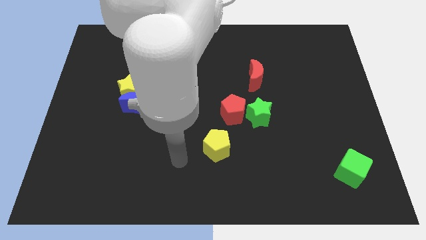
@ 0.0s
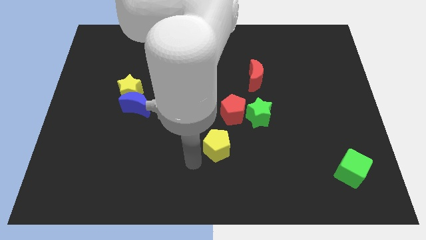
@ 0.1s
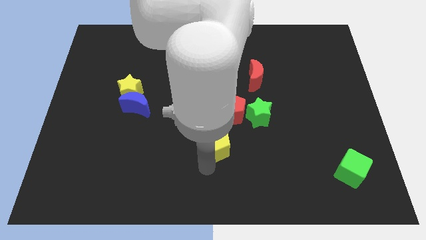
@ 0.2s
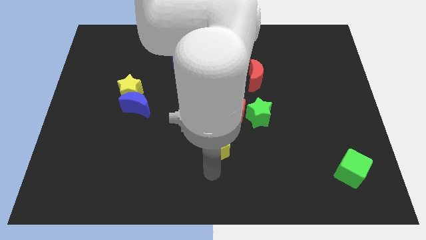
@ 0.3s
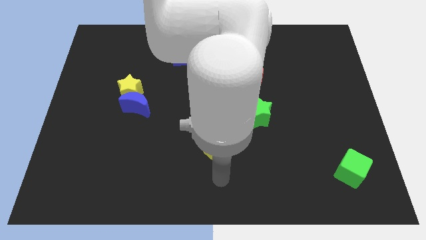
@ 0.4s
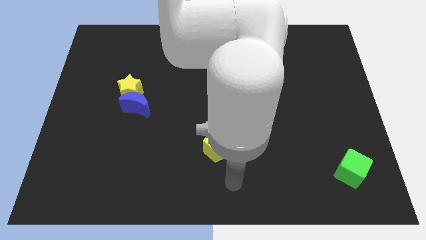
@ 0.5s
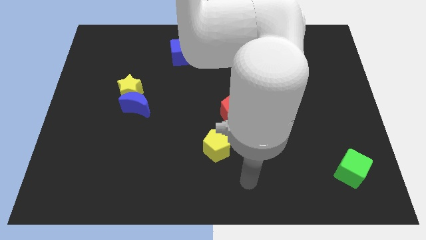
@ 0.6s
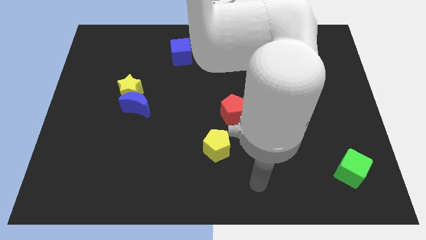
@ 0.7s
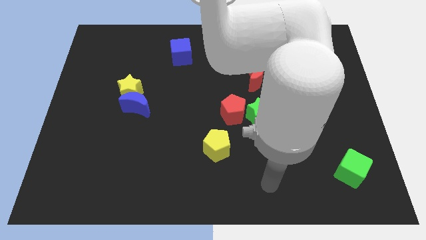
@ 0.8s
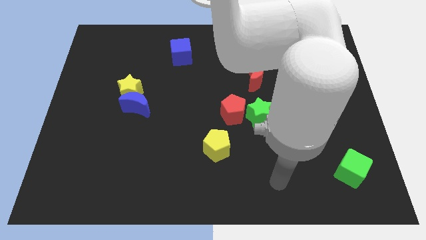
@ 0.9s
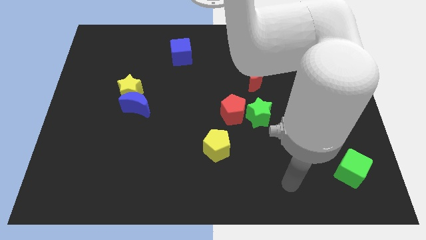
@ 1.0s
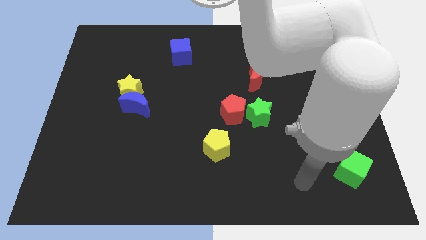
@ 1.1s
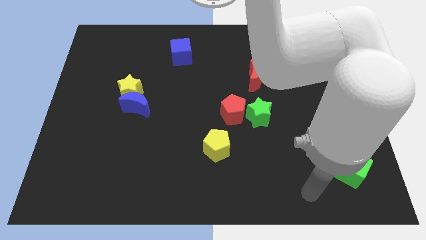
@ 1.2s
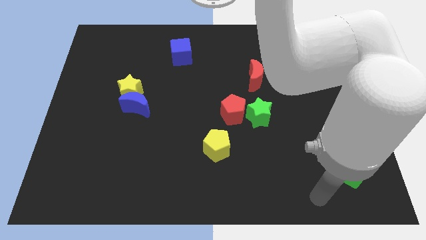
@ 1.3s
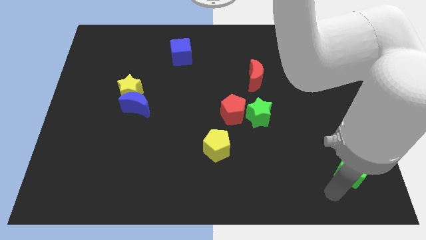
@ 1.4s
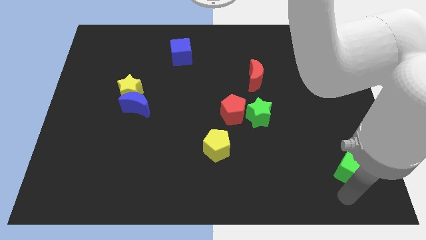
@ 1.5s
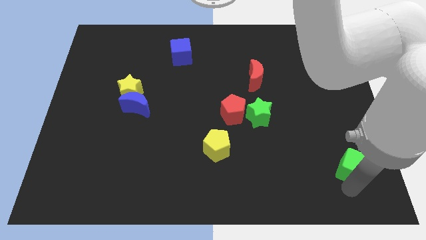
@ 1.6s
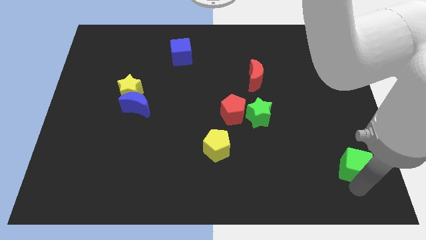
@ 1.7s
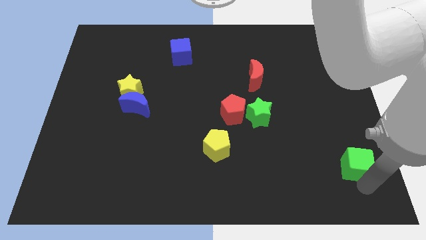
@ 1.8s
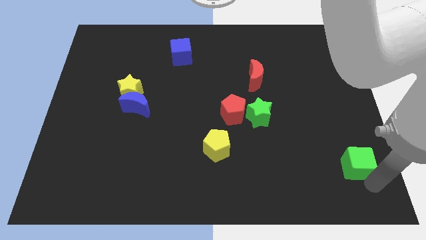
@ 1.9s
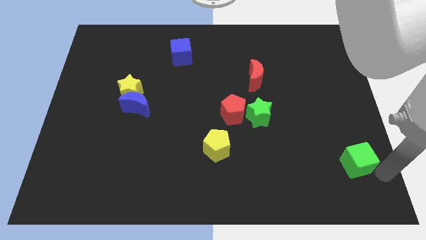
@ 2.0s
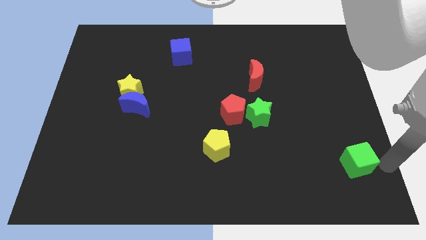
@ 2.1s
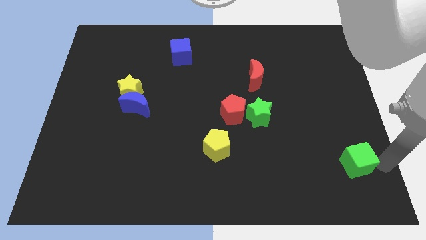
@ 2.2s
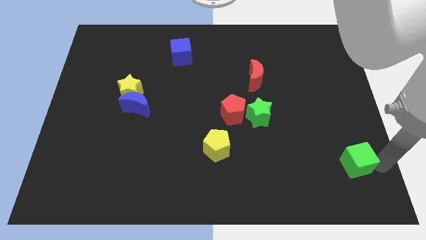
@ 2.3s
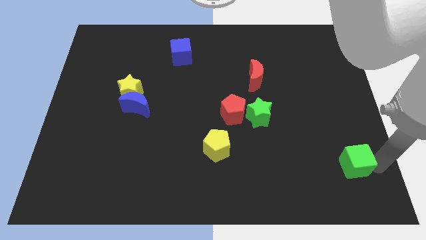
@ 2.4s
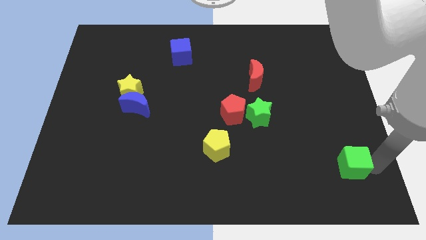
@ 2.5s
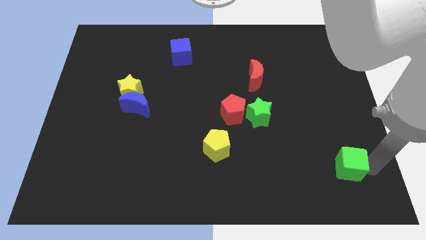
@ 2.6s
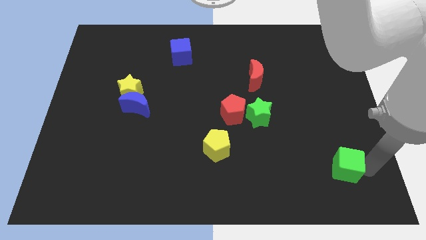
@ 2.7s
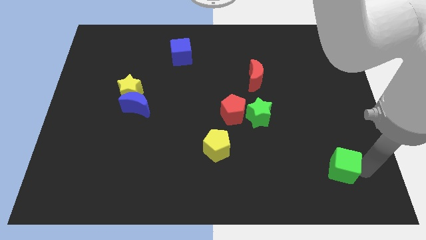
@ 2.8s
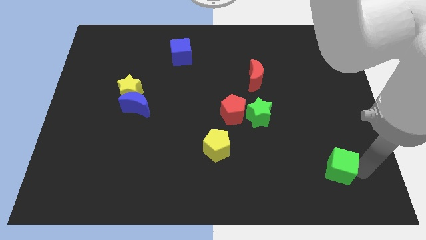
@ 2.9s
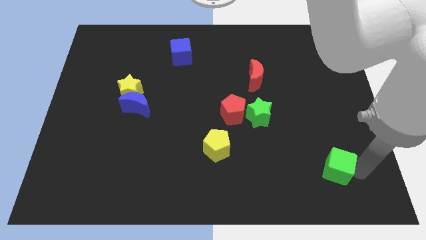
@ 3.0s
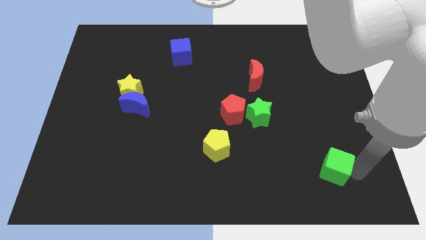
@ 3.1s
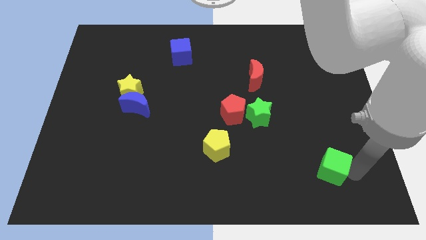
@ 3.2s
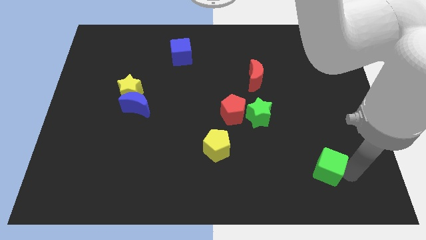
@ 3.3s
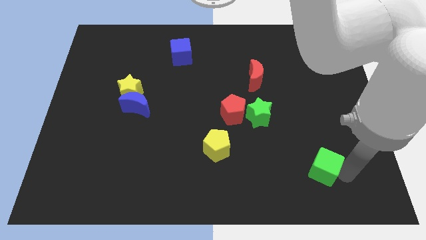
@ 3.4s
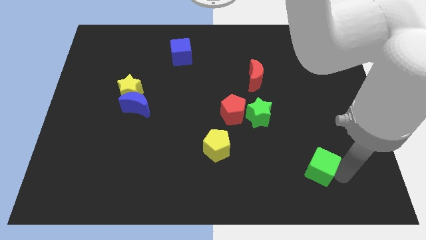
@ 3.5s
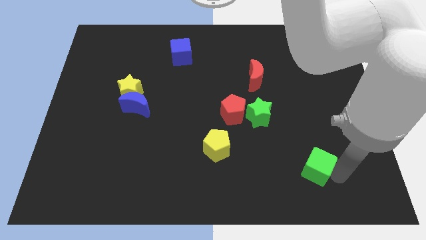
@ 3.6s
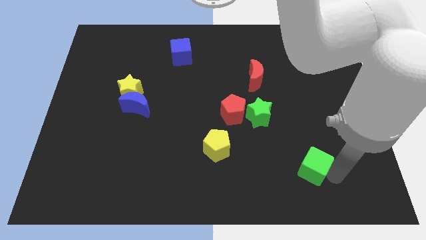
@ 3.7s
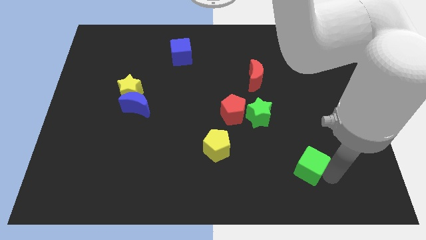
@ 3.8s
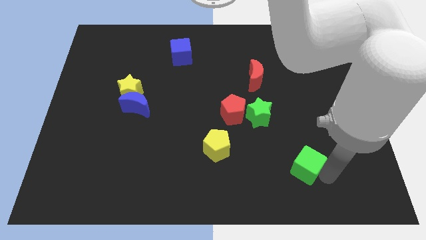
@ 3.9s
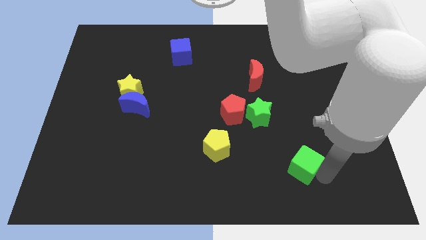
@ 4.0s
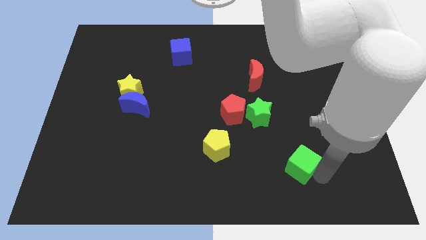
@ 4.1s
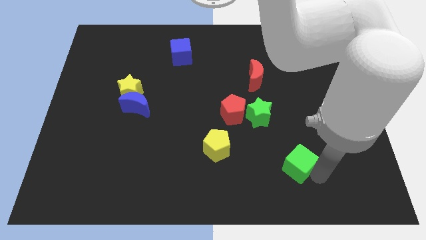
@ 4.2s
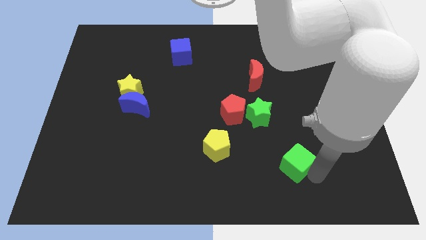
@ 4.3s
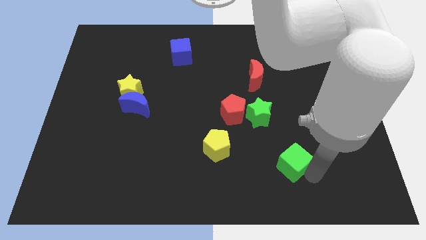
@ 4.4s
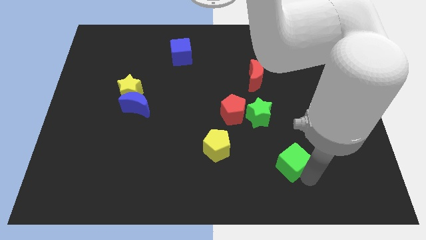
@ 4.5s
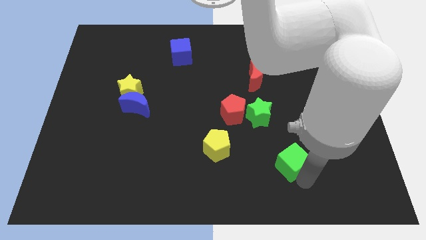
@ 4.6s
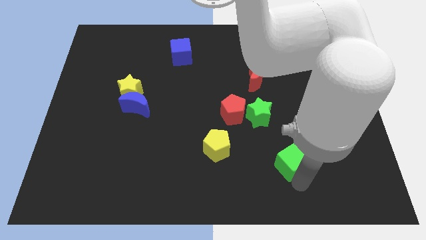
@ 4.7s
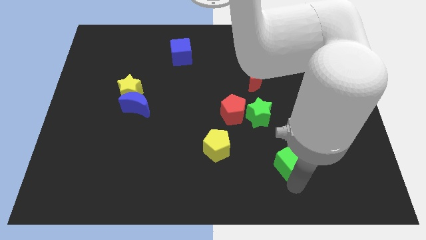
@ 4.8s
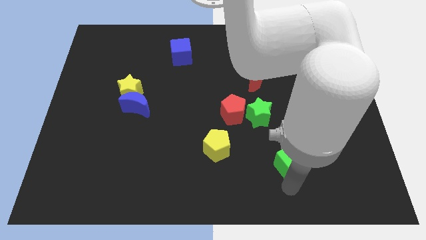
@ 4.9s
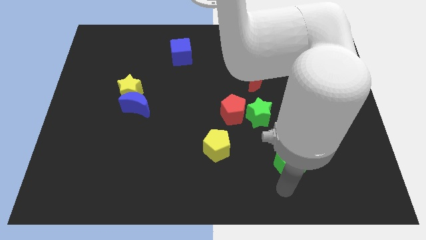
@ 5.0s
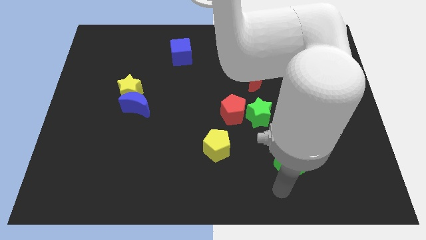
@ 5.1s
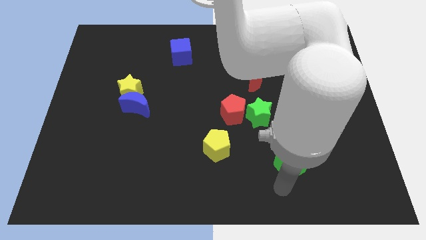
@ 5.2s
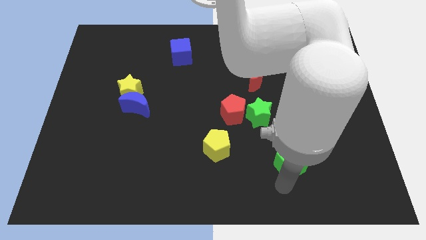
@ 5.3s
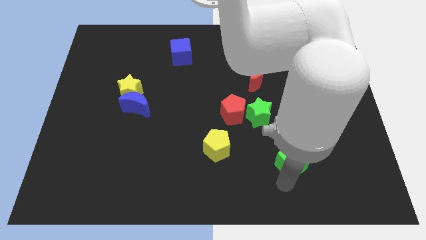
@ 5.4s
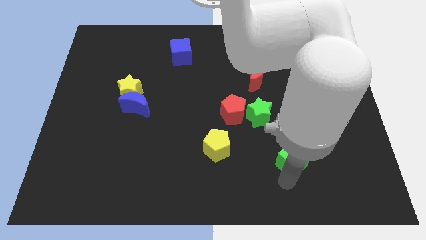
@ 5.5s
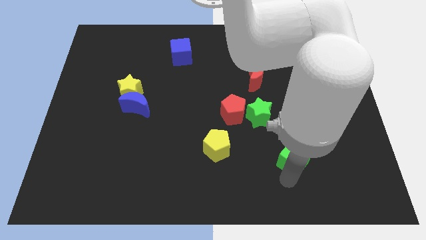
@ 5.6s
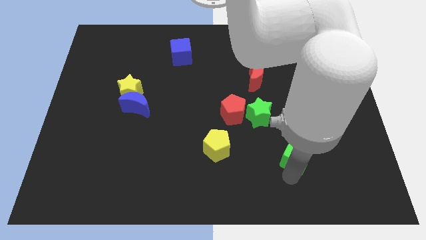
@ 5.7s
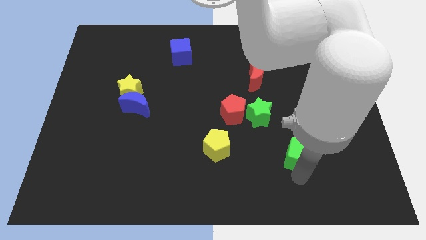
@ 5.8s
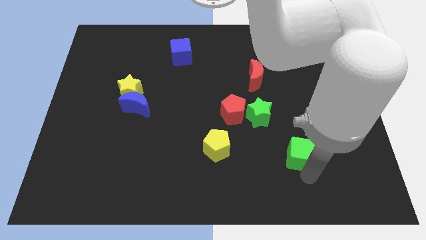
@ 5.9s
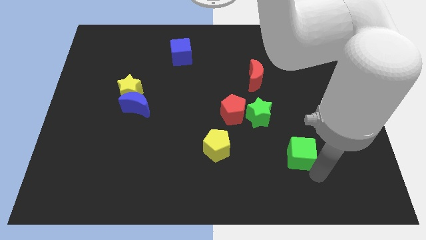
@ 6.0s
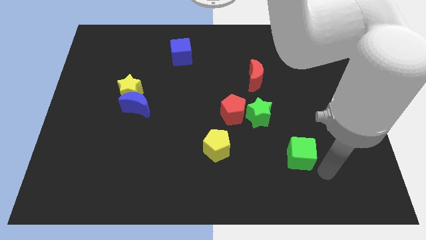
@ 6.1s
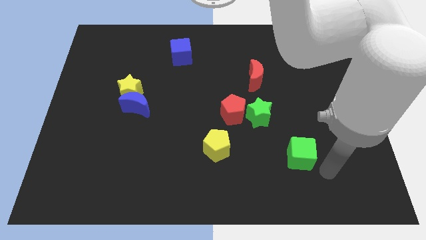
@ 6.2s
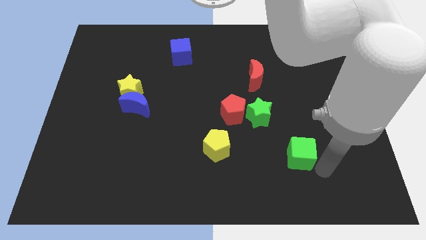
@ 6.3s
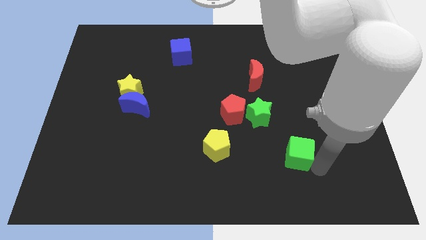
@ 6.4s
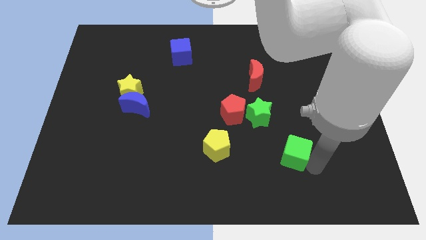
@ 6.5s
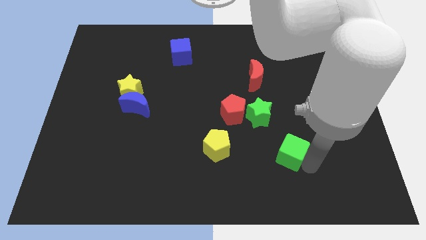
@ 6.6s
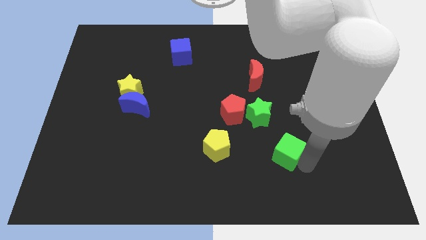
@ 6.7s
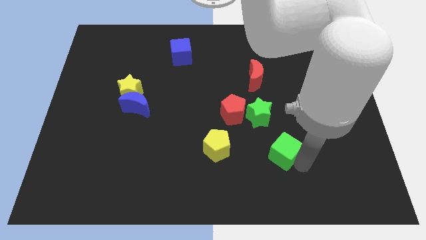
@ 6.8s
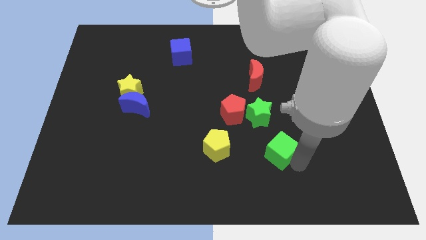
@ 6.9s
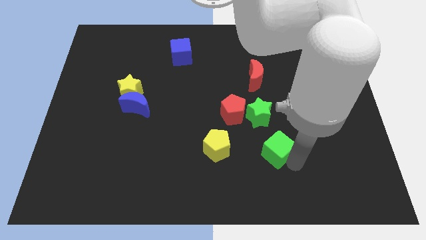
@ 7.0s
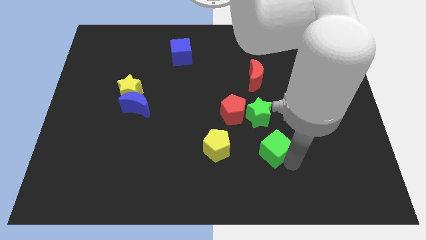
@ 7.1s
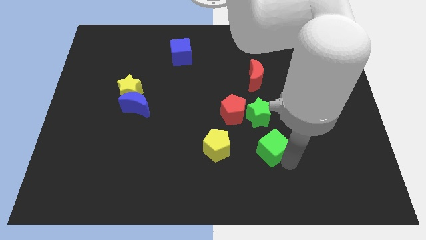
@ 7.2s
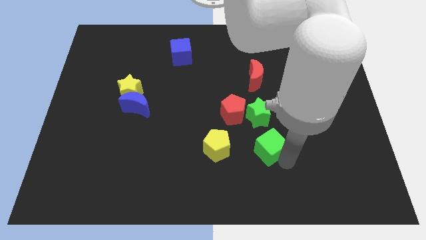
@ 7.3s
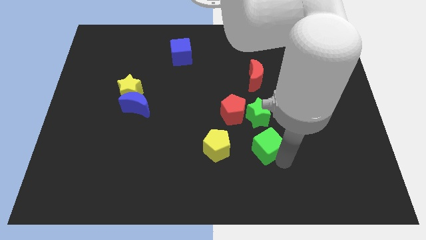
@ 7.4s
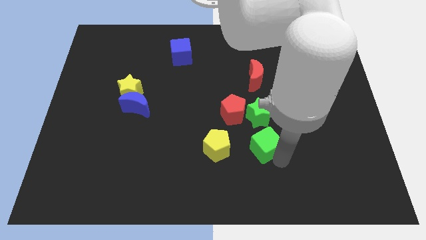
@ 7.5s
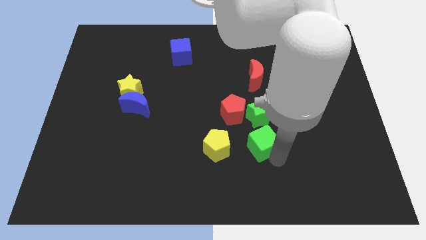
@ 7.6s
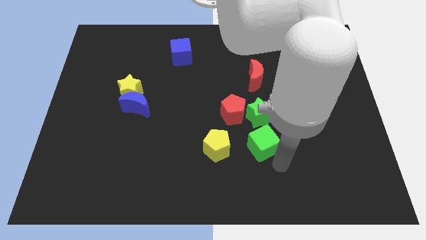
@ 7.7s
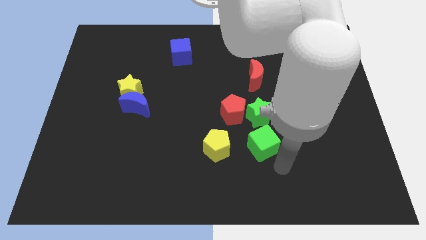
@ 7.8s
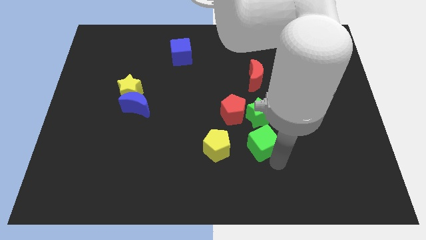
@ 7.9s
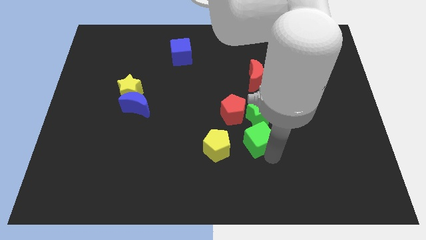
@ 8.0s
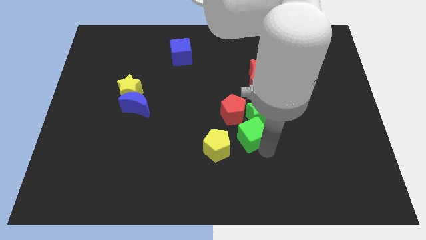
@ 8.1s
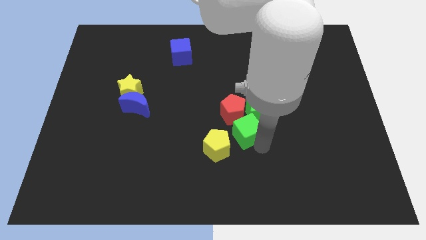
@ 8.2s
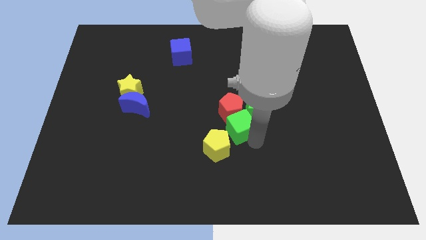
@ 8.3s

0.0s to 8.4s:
slide the green cube to the red pentagon
